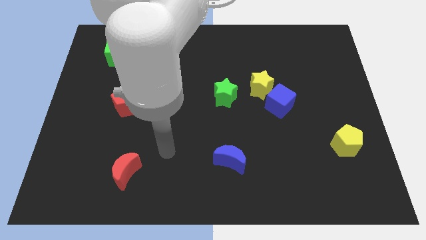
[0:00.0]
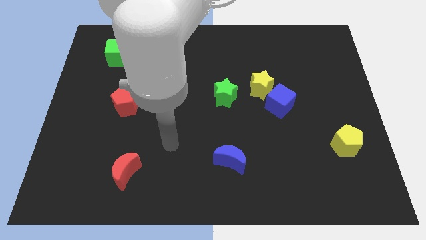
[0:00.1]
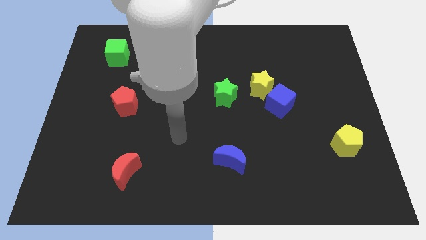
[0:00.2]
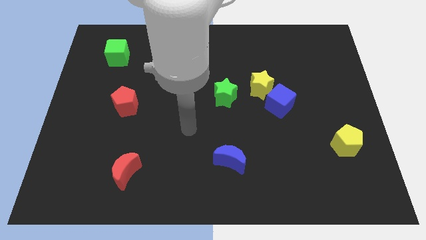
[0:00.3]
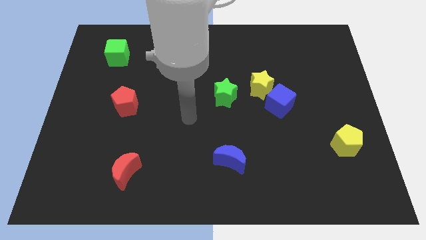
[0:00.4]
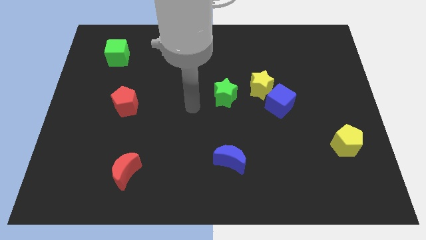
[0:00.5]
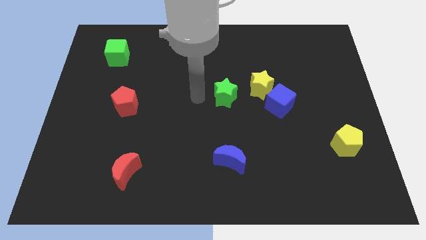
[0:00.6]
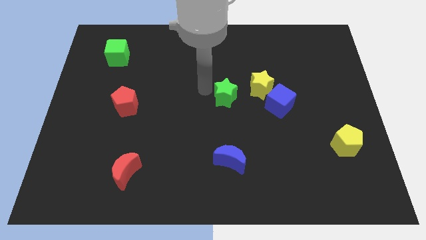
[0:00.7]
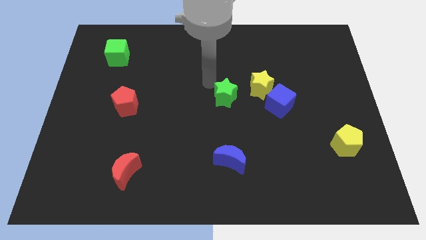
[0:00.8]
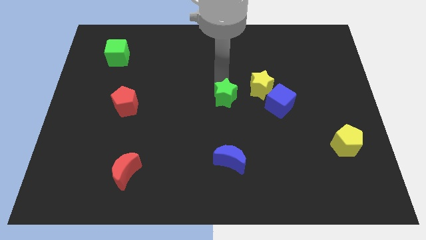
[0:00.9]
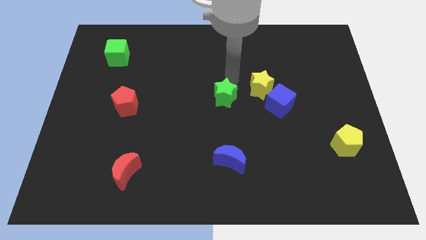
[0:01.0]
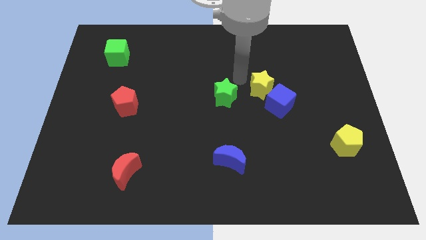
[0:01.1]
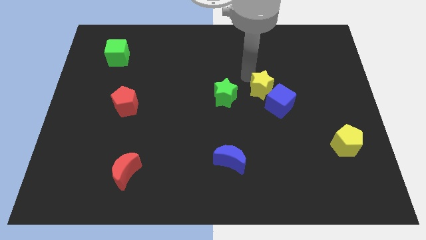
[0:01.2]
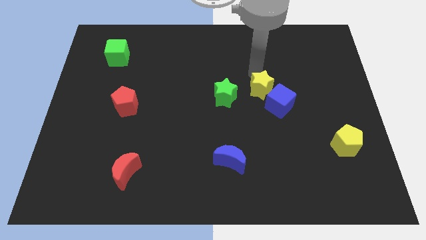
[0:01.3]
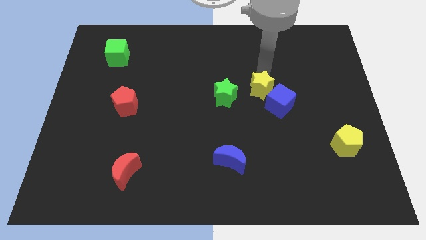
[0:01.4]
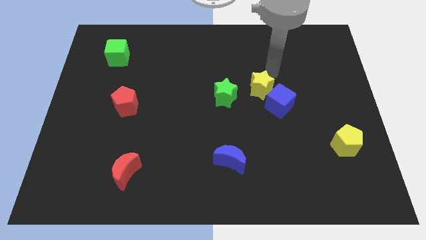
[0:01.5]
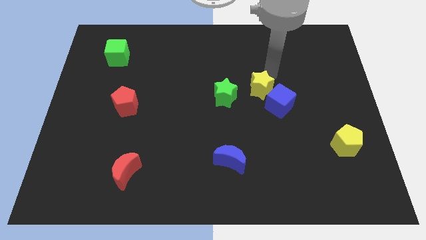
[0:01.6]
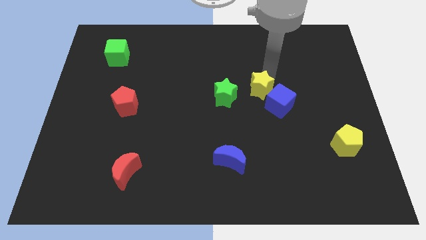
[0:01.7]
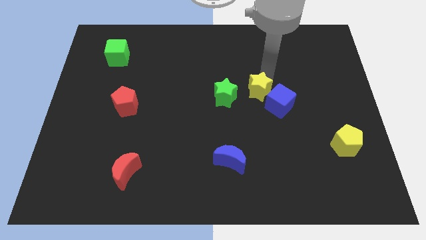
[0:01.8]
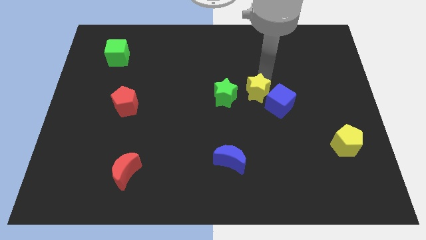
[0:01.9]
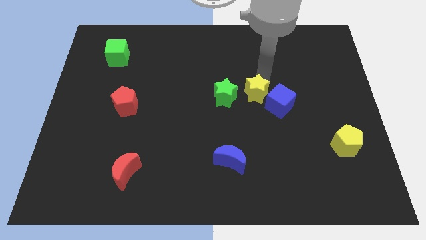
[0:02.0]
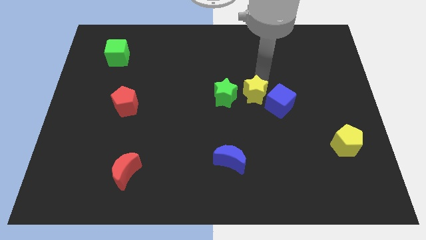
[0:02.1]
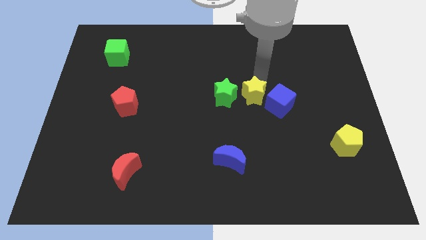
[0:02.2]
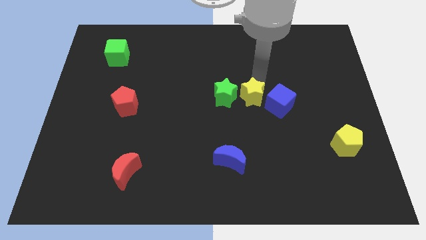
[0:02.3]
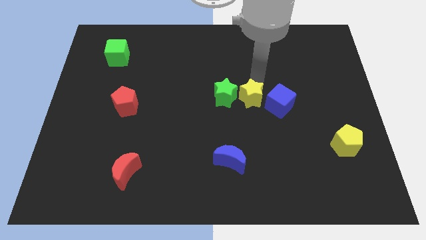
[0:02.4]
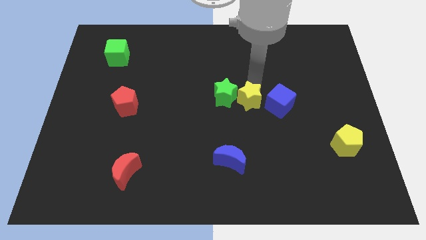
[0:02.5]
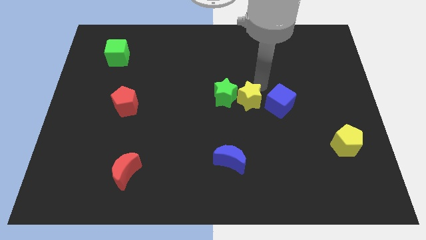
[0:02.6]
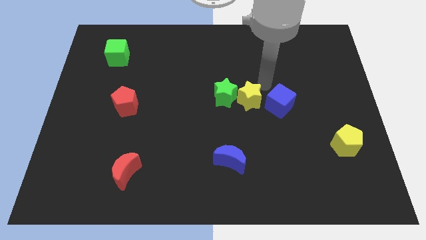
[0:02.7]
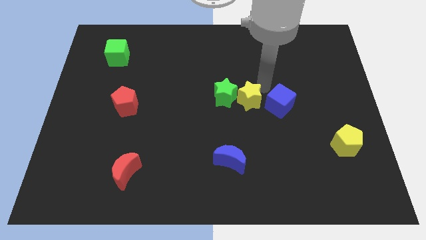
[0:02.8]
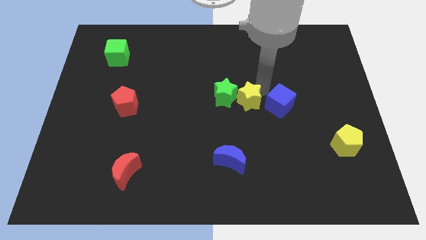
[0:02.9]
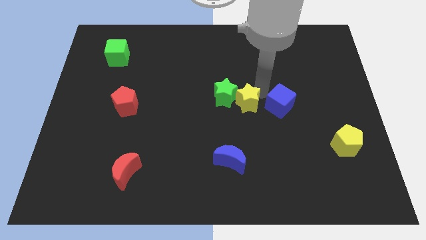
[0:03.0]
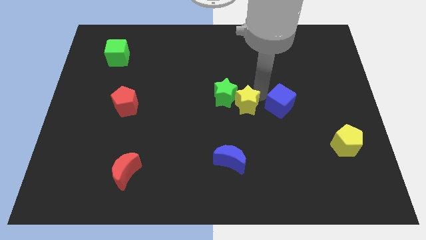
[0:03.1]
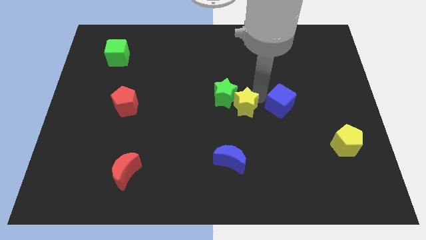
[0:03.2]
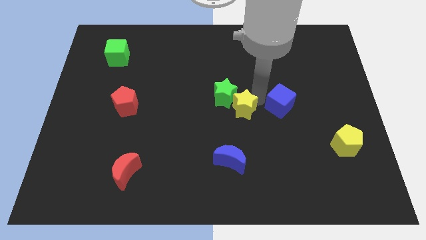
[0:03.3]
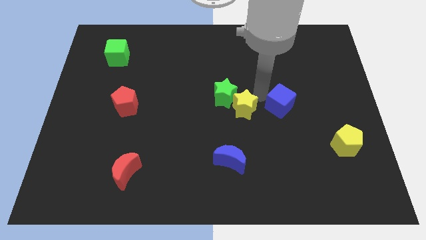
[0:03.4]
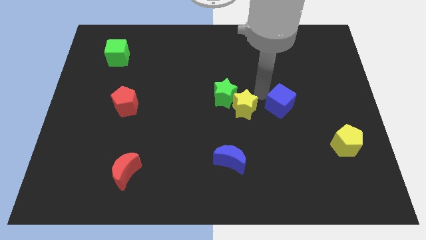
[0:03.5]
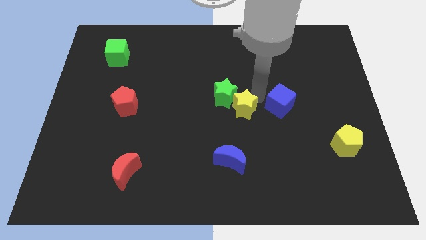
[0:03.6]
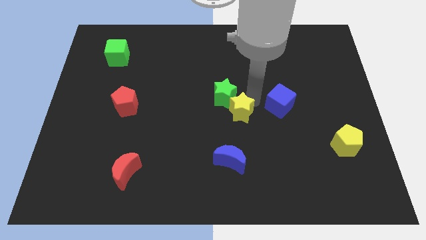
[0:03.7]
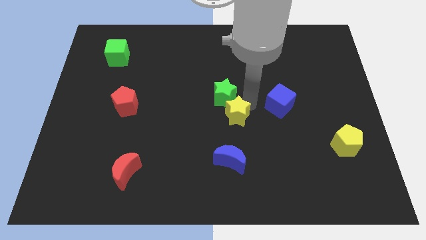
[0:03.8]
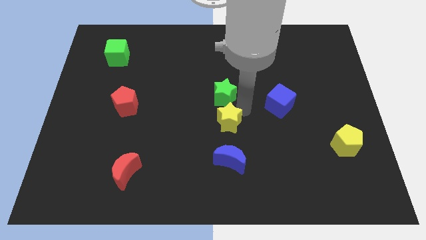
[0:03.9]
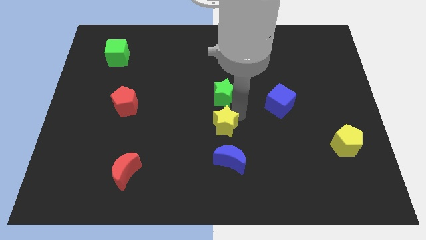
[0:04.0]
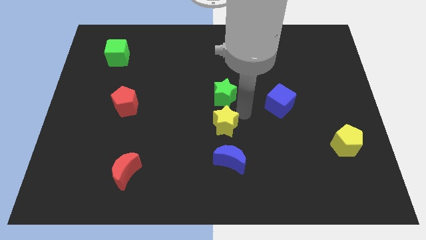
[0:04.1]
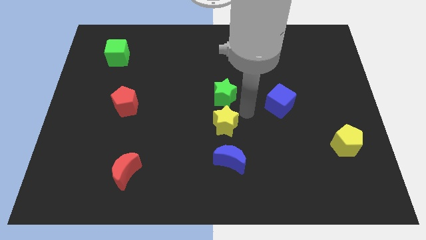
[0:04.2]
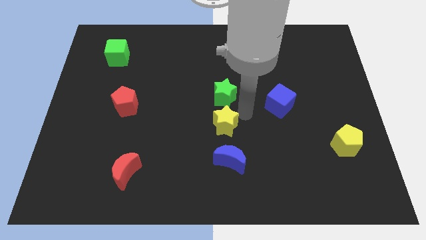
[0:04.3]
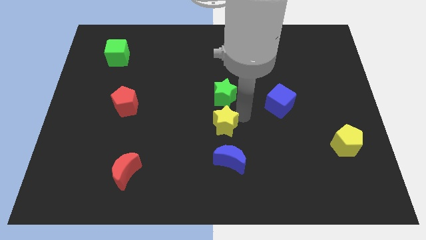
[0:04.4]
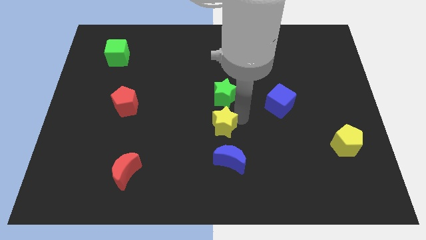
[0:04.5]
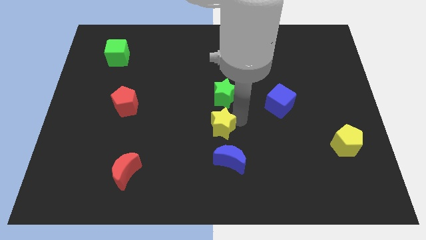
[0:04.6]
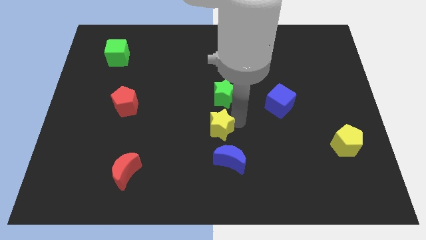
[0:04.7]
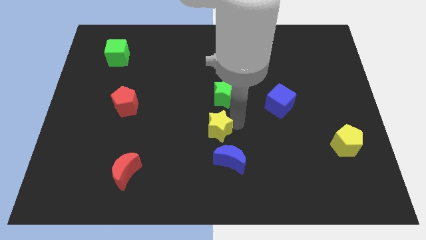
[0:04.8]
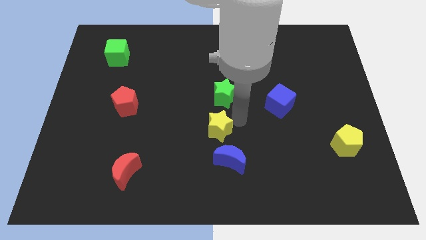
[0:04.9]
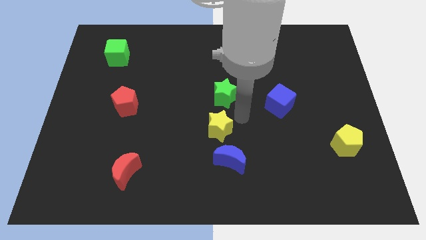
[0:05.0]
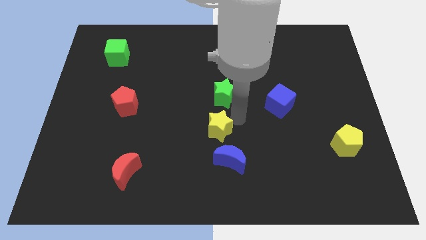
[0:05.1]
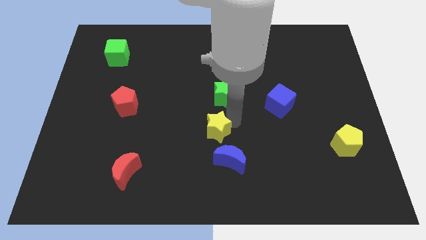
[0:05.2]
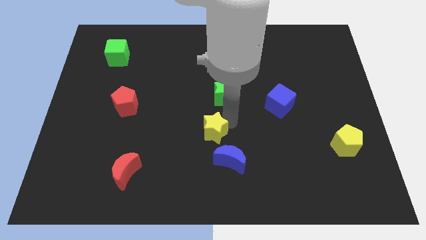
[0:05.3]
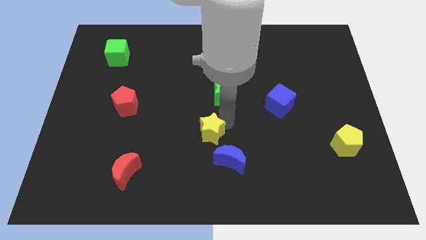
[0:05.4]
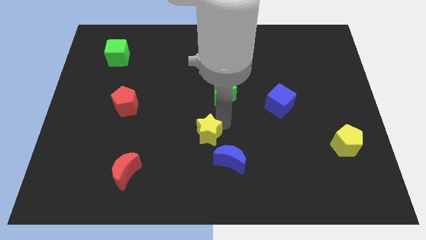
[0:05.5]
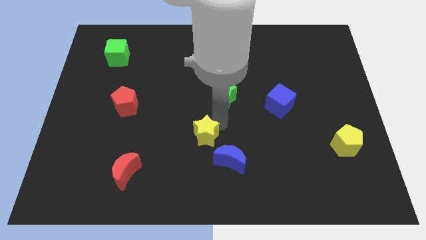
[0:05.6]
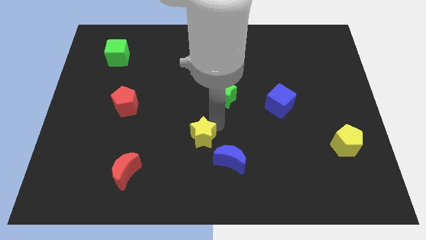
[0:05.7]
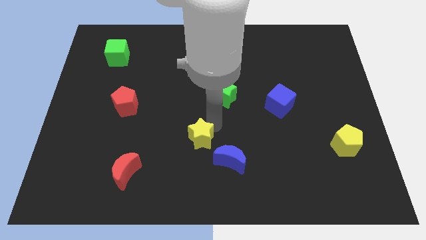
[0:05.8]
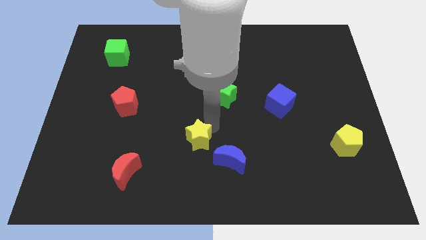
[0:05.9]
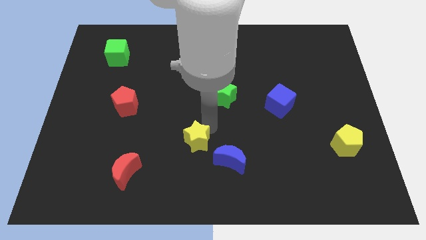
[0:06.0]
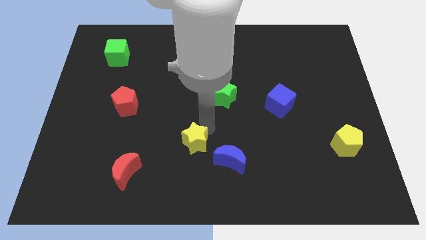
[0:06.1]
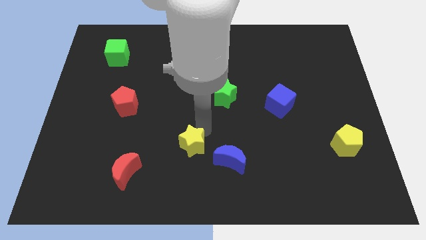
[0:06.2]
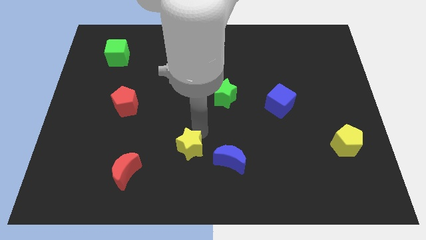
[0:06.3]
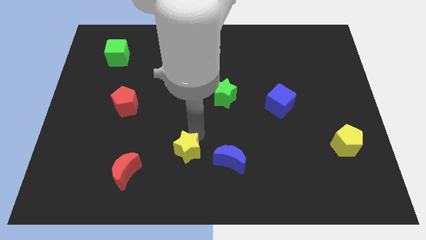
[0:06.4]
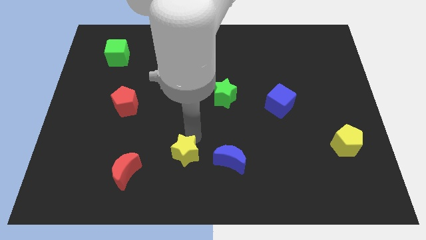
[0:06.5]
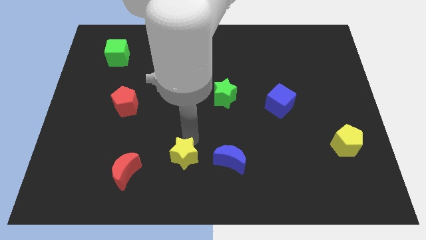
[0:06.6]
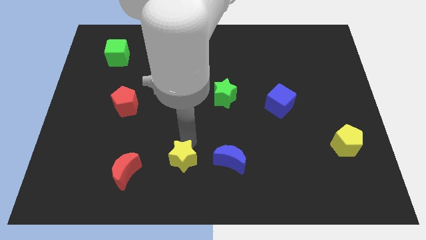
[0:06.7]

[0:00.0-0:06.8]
slide the yellow star to the bottom
